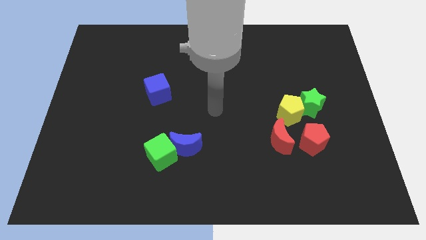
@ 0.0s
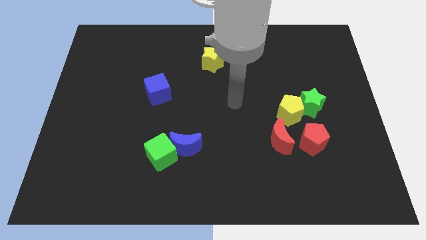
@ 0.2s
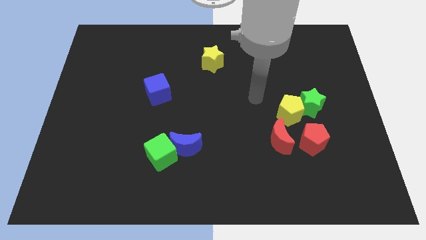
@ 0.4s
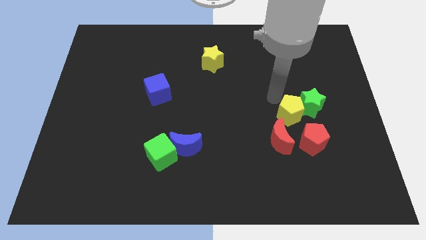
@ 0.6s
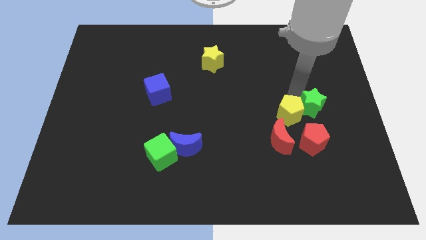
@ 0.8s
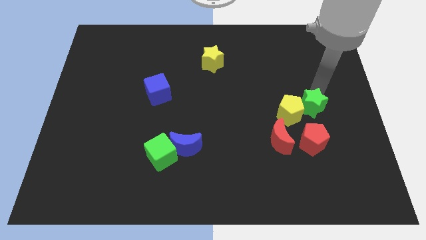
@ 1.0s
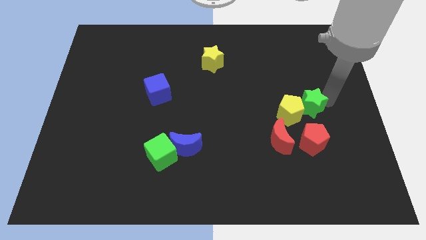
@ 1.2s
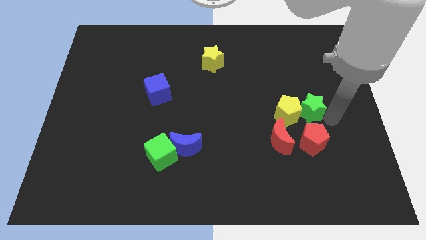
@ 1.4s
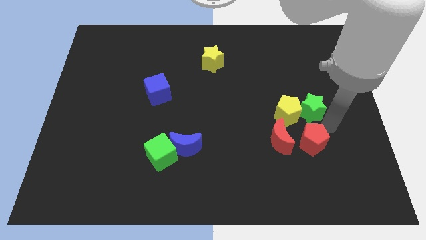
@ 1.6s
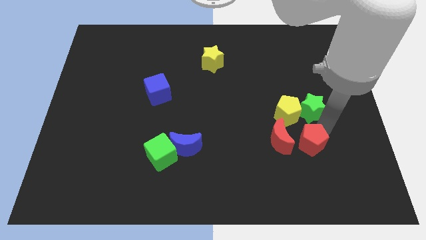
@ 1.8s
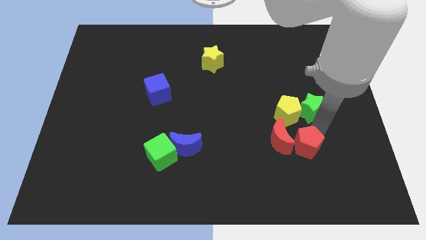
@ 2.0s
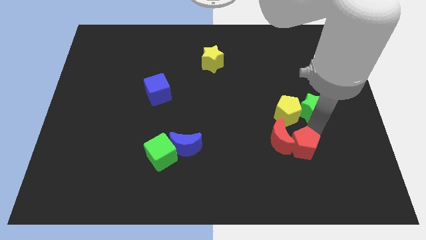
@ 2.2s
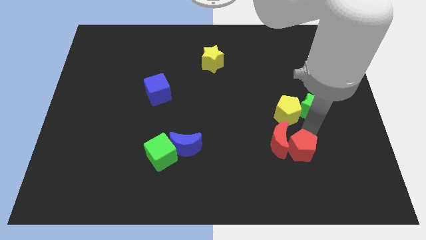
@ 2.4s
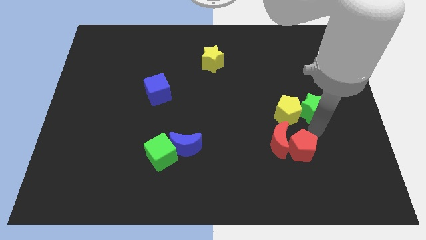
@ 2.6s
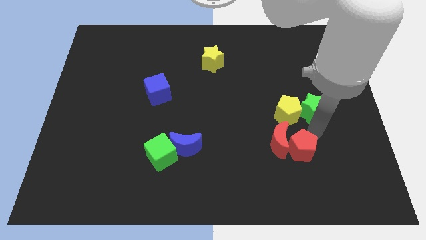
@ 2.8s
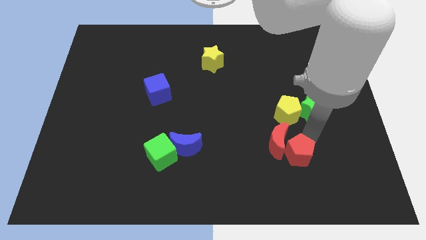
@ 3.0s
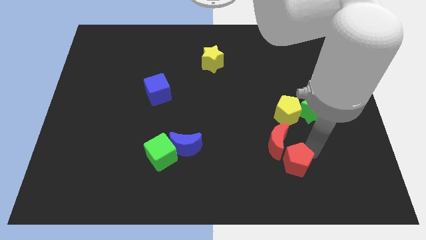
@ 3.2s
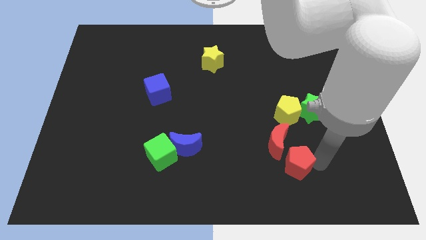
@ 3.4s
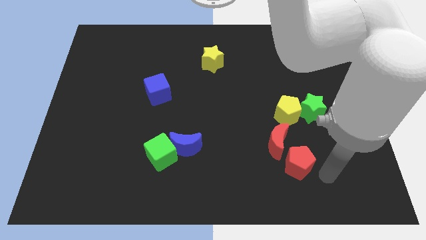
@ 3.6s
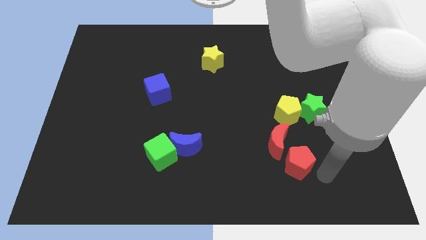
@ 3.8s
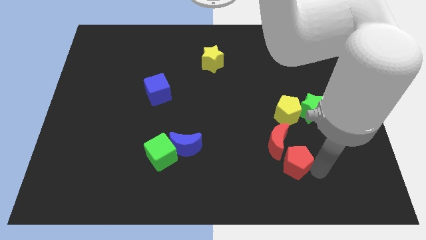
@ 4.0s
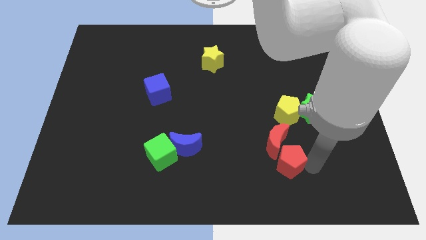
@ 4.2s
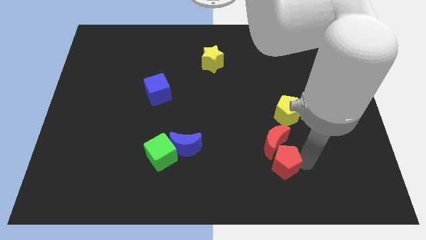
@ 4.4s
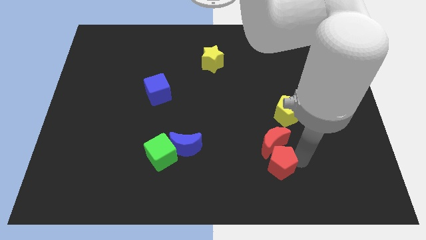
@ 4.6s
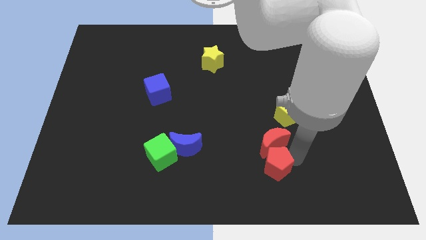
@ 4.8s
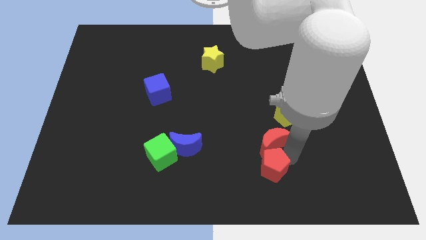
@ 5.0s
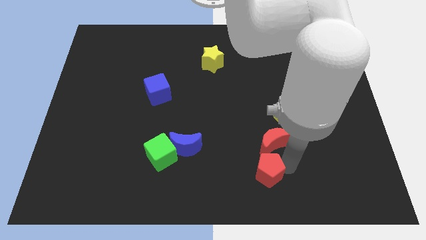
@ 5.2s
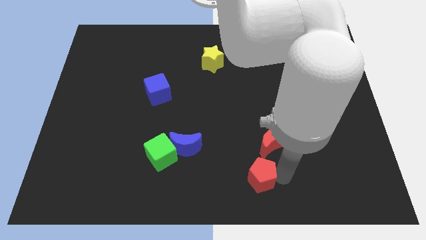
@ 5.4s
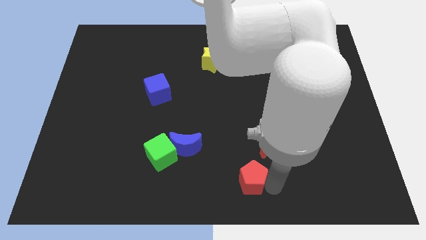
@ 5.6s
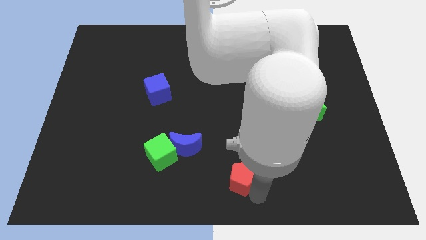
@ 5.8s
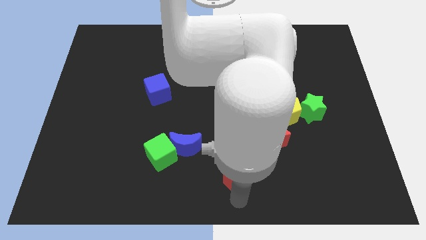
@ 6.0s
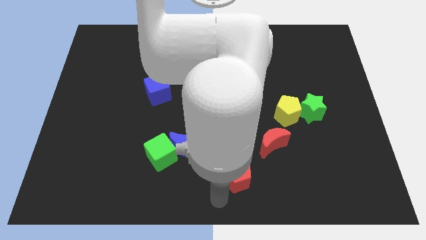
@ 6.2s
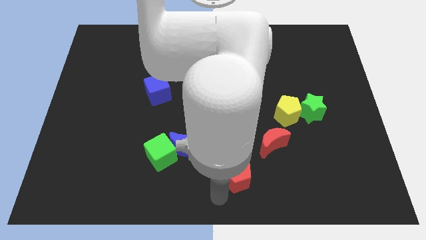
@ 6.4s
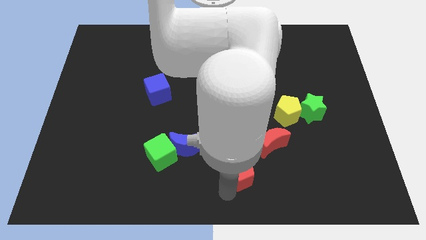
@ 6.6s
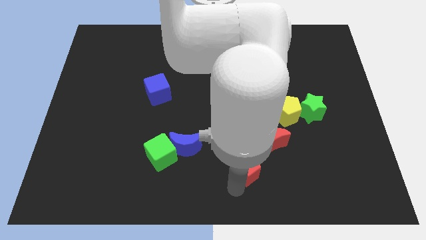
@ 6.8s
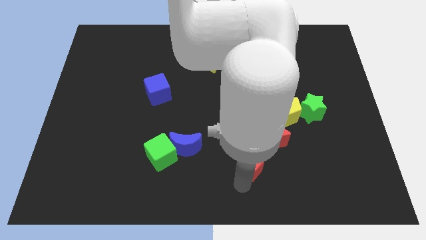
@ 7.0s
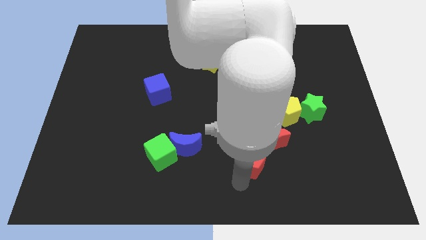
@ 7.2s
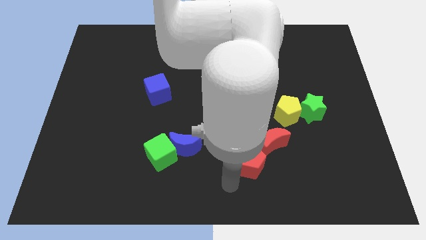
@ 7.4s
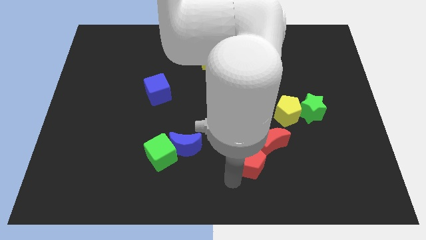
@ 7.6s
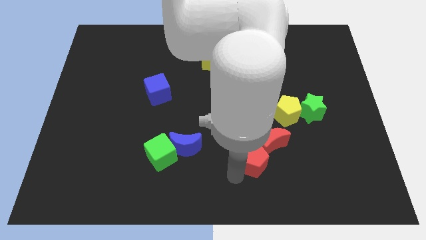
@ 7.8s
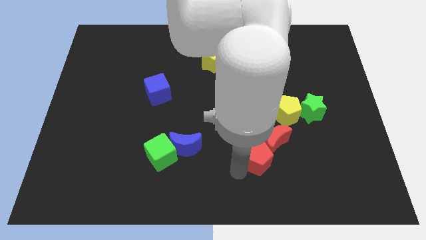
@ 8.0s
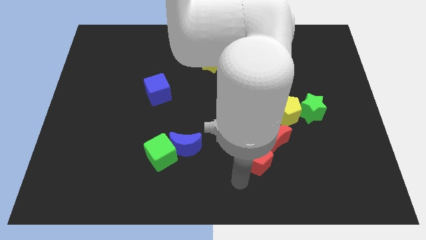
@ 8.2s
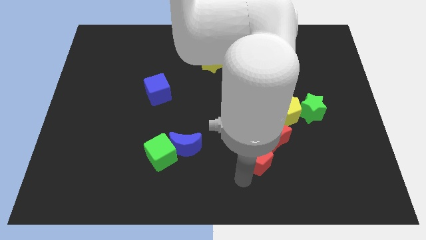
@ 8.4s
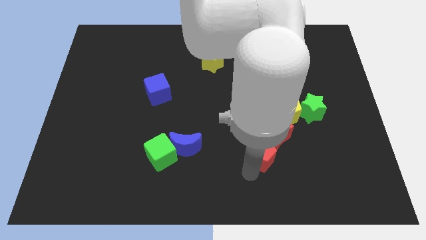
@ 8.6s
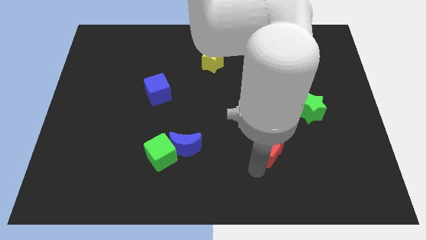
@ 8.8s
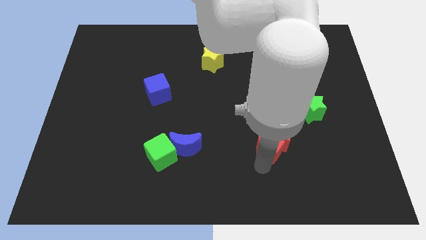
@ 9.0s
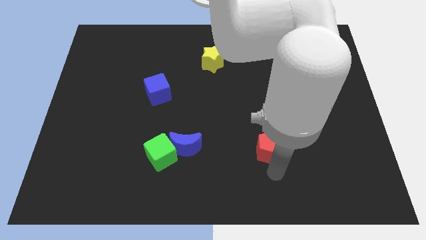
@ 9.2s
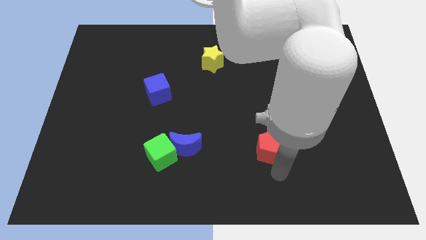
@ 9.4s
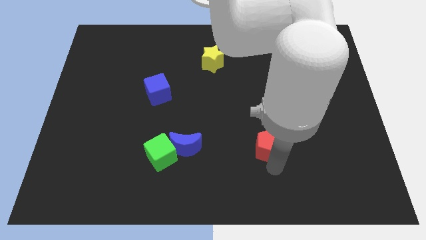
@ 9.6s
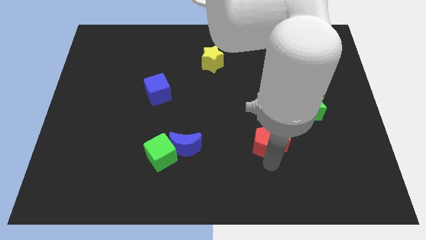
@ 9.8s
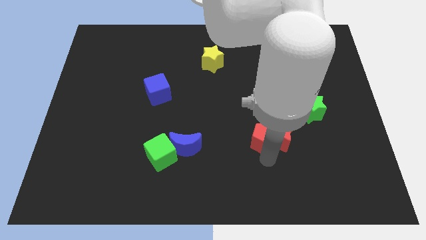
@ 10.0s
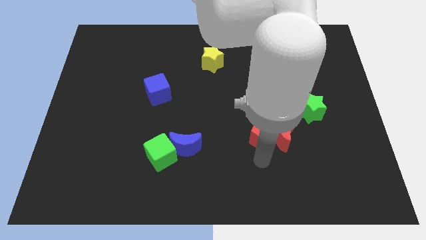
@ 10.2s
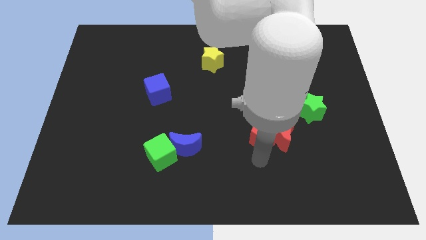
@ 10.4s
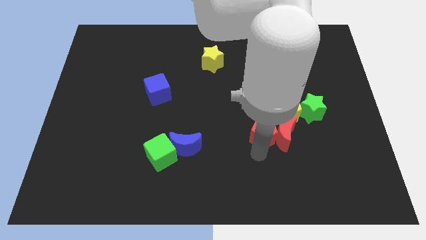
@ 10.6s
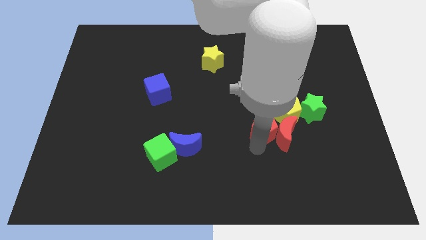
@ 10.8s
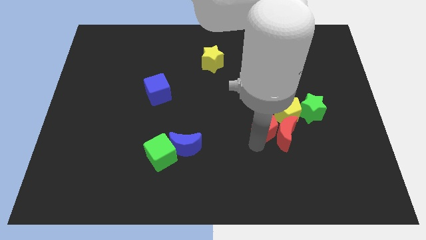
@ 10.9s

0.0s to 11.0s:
move the red pentagon to the left side of the green star

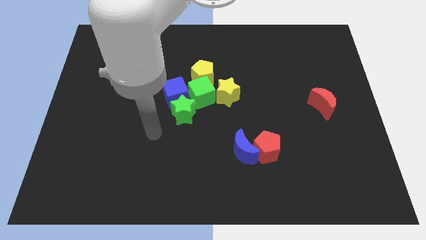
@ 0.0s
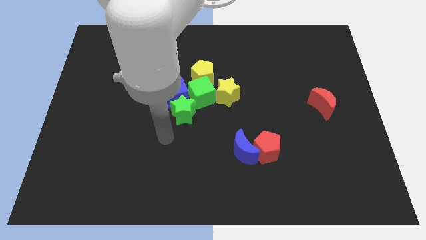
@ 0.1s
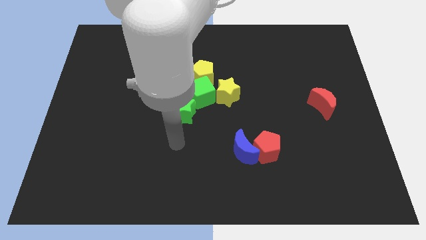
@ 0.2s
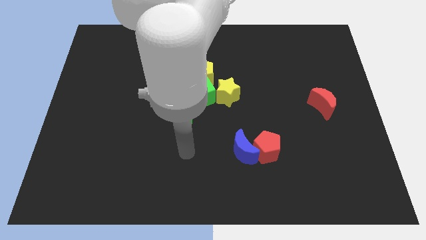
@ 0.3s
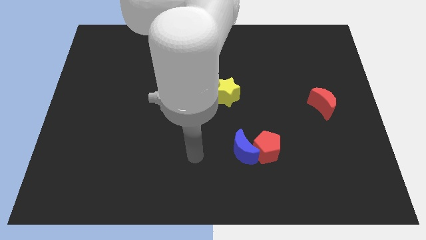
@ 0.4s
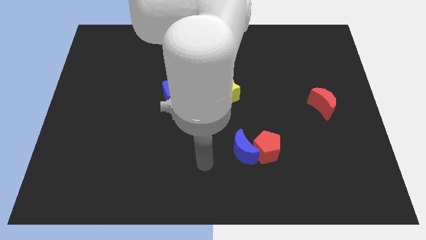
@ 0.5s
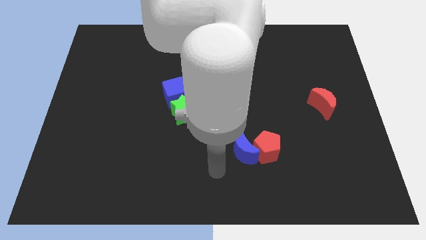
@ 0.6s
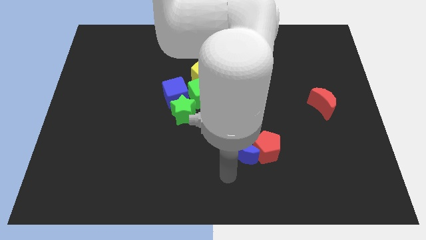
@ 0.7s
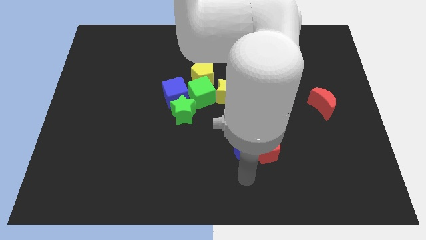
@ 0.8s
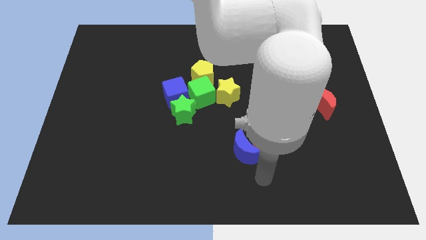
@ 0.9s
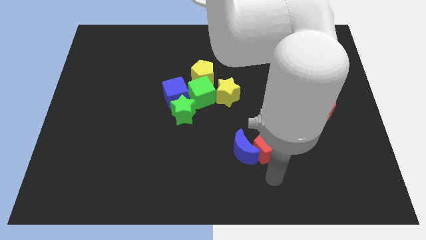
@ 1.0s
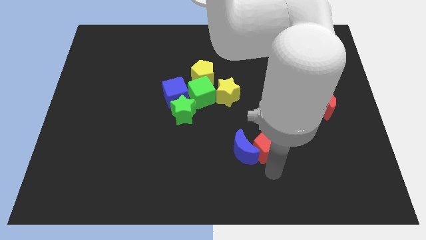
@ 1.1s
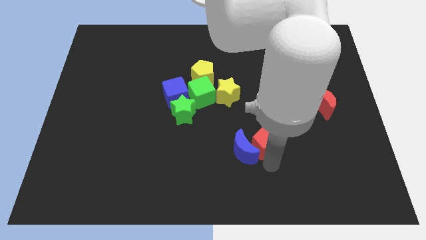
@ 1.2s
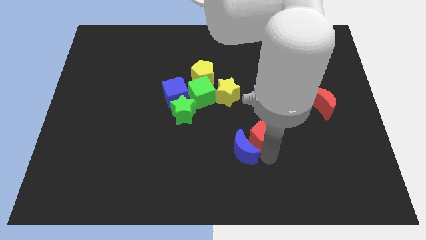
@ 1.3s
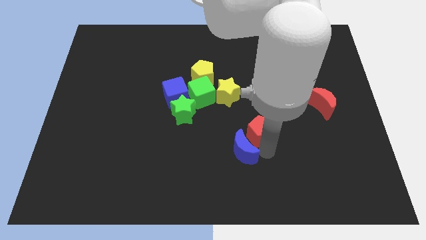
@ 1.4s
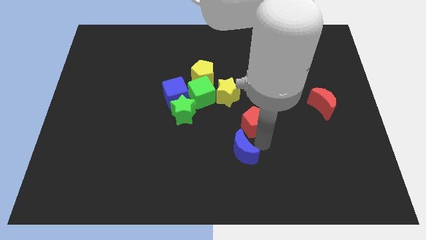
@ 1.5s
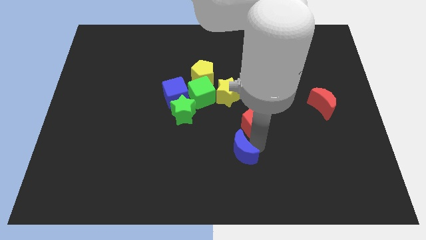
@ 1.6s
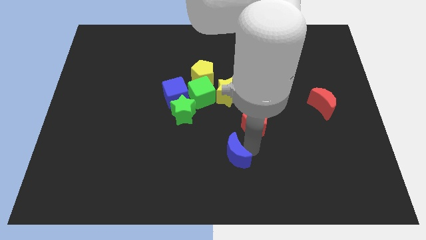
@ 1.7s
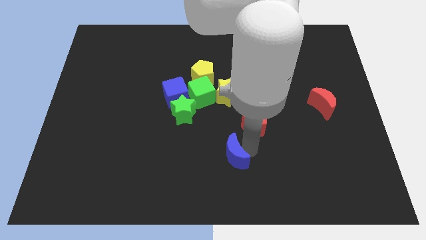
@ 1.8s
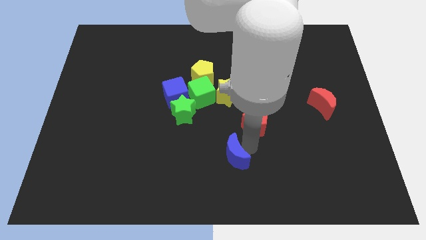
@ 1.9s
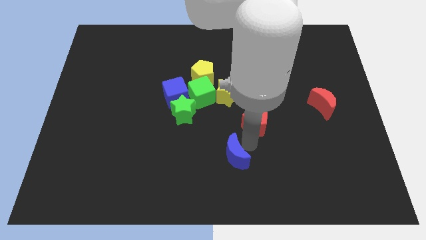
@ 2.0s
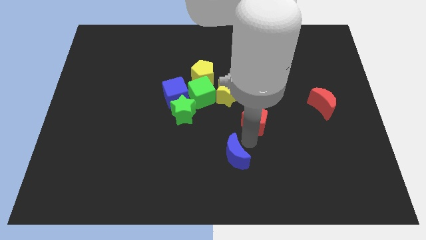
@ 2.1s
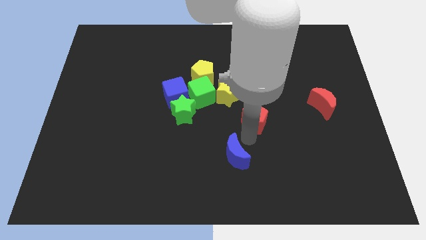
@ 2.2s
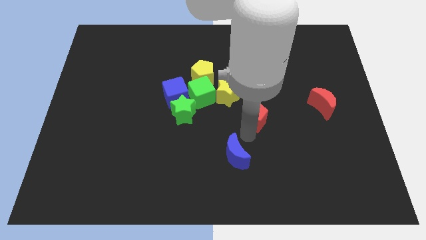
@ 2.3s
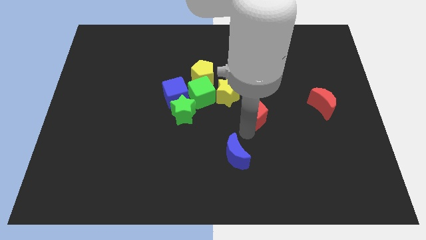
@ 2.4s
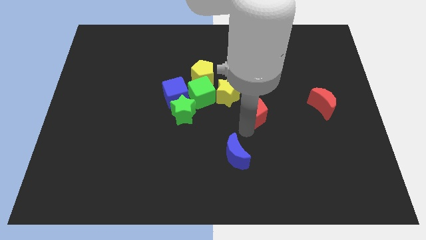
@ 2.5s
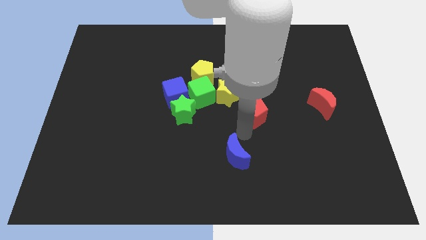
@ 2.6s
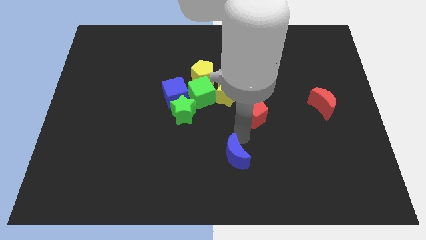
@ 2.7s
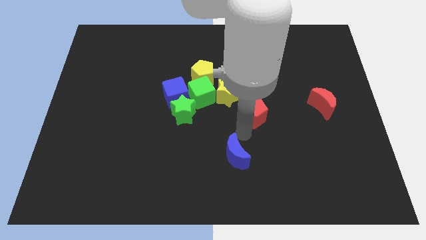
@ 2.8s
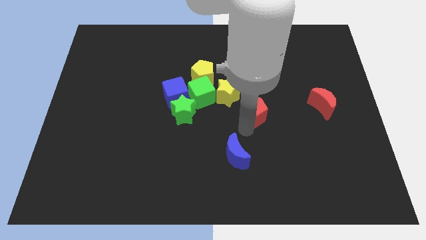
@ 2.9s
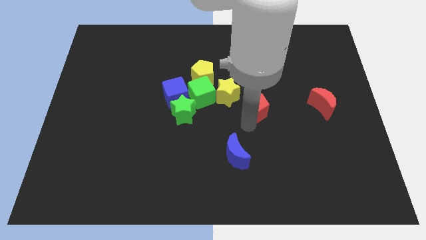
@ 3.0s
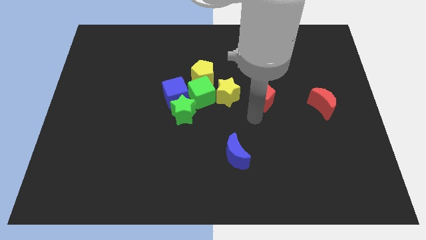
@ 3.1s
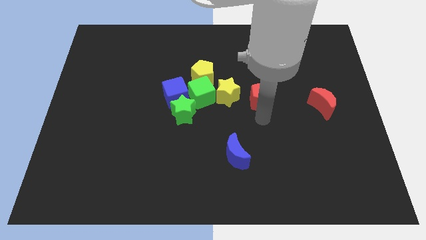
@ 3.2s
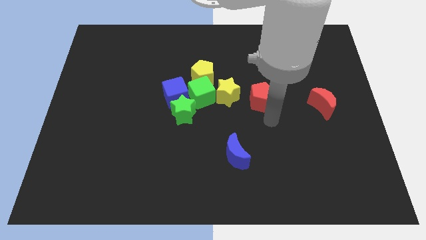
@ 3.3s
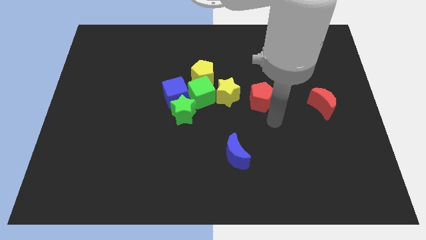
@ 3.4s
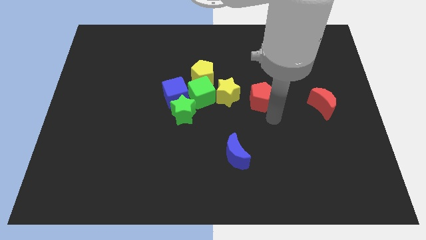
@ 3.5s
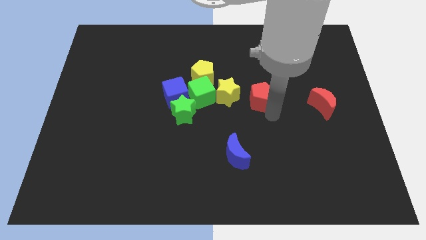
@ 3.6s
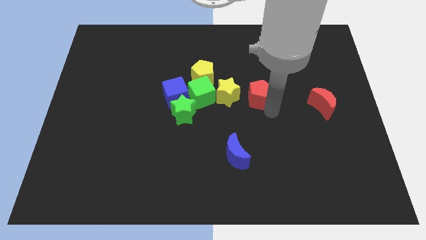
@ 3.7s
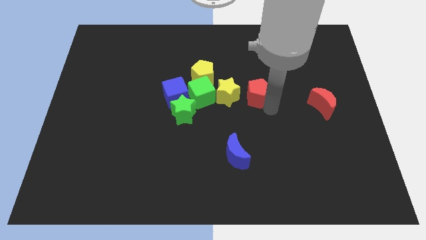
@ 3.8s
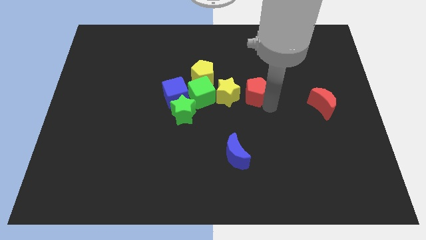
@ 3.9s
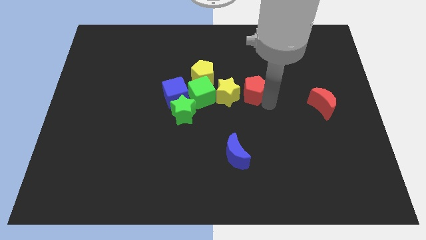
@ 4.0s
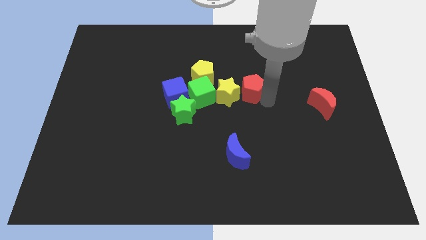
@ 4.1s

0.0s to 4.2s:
slide the red pentagon just right of the yellow pentagon
